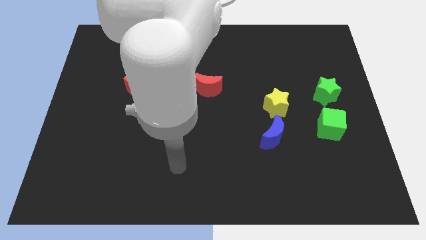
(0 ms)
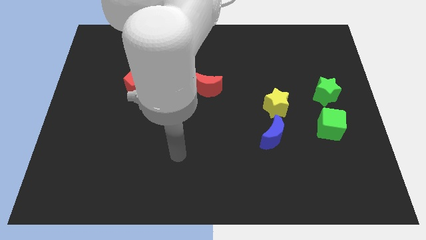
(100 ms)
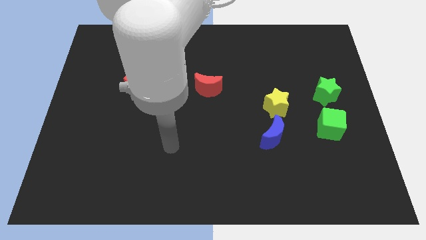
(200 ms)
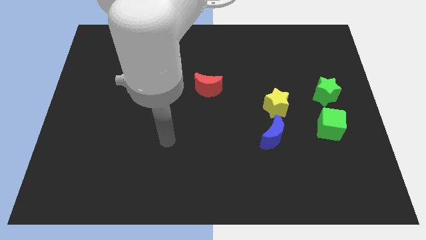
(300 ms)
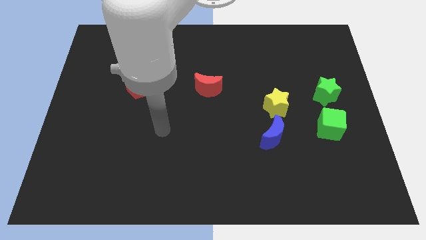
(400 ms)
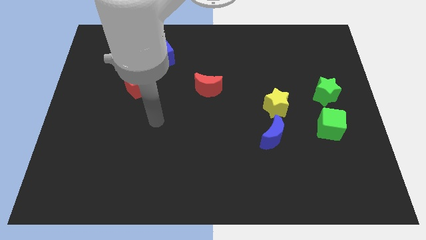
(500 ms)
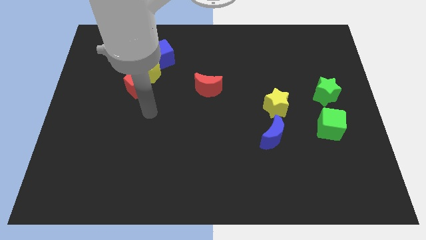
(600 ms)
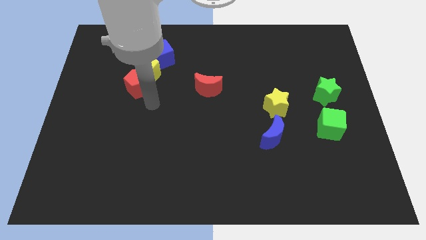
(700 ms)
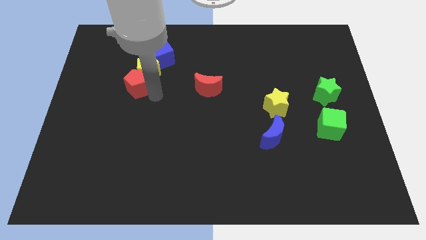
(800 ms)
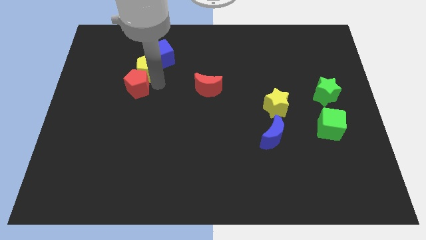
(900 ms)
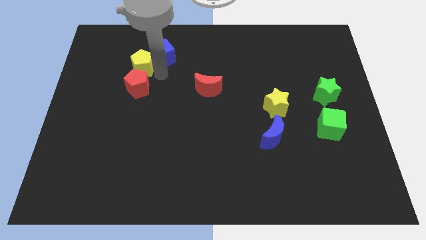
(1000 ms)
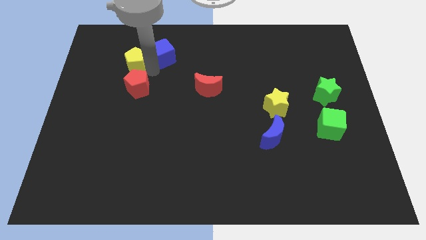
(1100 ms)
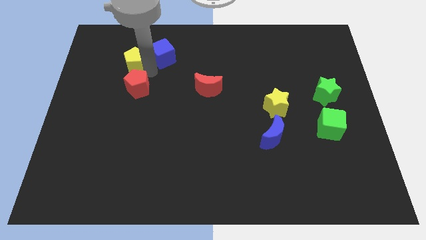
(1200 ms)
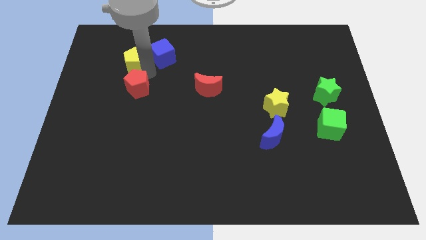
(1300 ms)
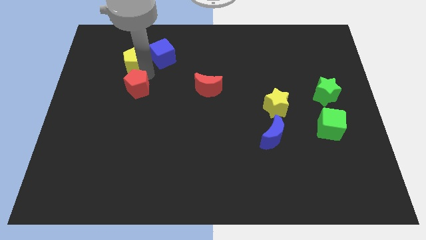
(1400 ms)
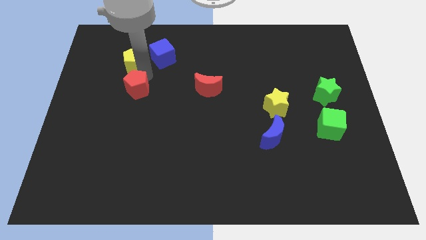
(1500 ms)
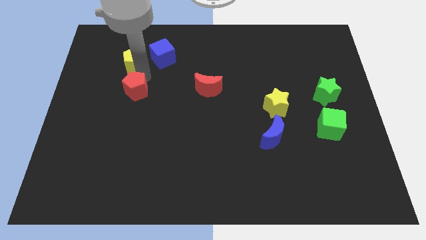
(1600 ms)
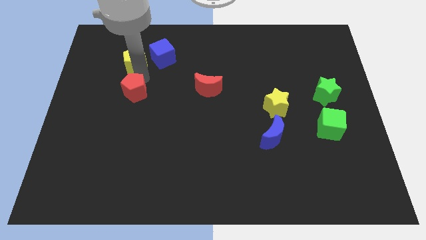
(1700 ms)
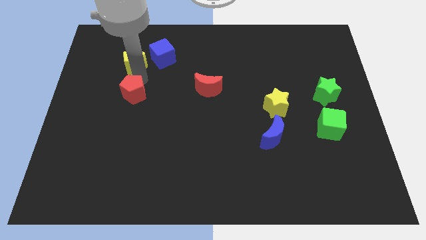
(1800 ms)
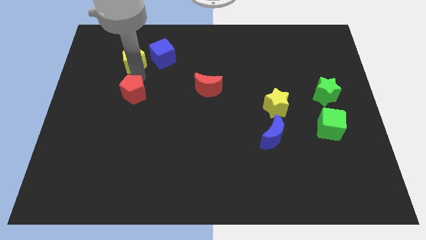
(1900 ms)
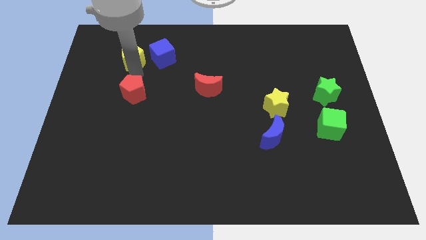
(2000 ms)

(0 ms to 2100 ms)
separate the red pentagon from the yellow pentagon

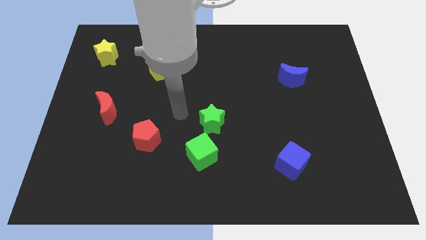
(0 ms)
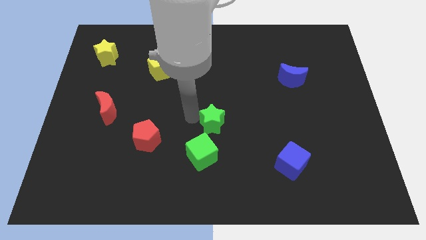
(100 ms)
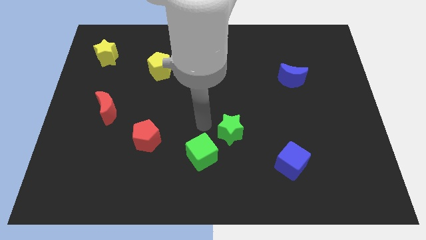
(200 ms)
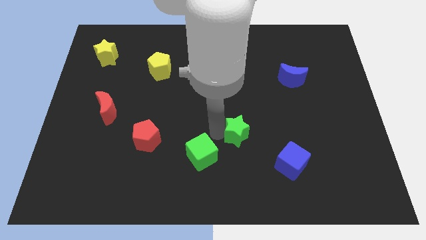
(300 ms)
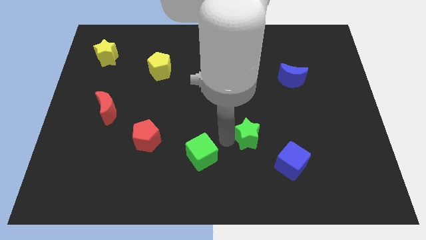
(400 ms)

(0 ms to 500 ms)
separate the green cube from the green star

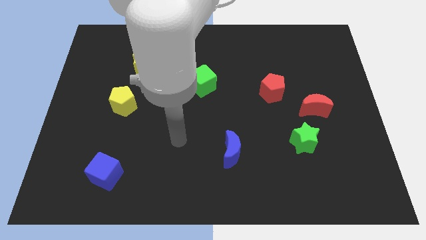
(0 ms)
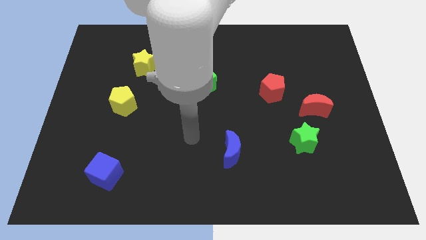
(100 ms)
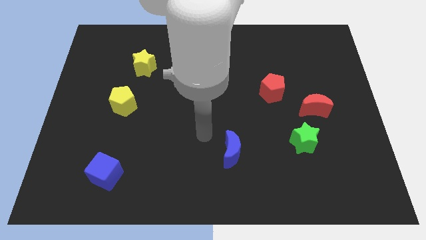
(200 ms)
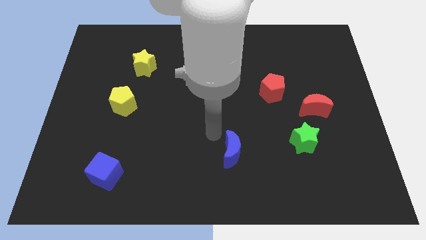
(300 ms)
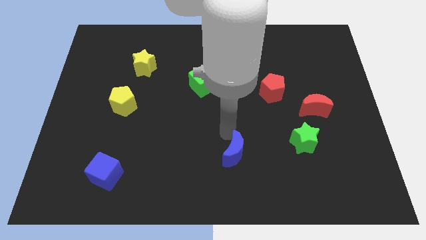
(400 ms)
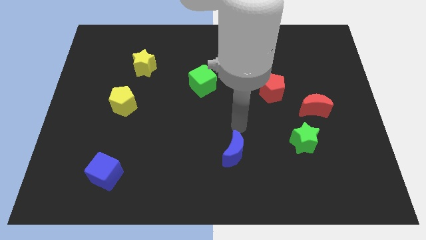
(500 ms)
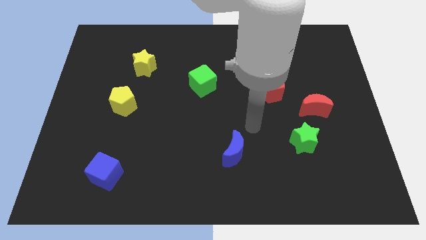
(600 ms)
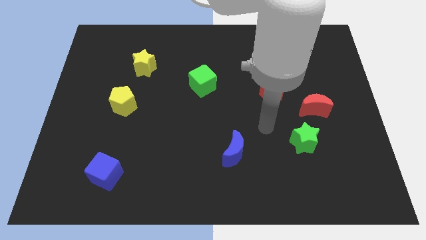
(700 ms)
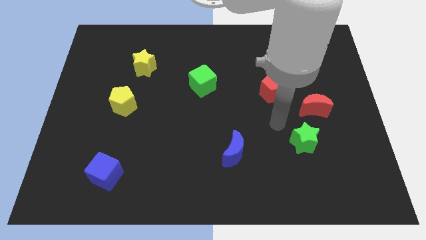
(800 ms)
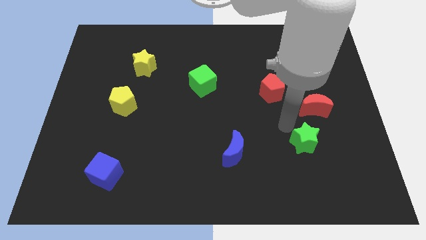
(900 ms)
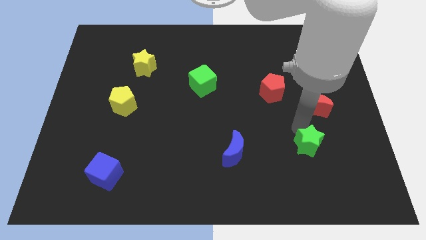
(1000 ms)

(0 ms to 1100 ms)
separate the red moon from the green star

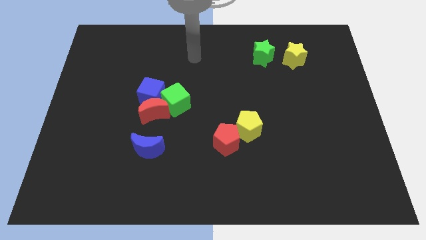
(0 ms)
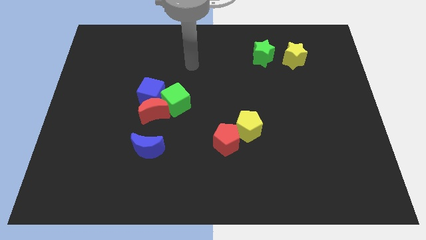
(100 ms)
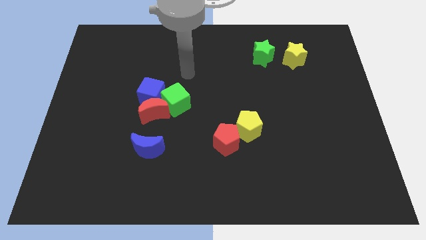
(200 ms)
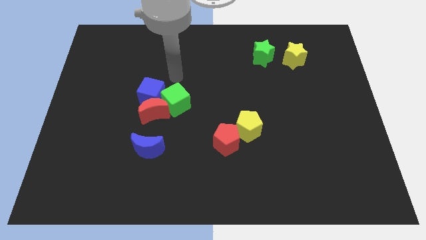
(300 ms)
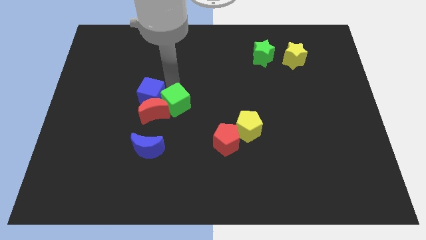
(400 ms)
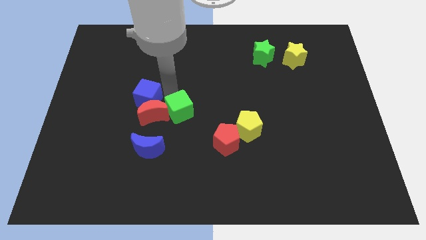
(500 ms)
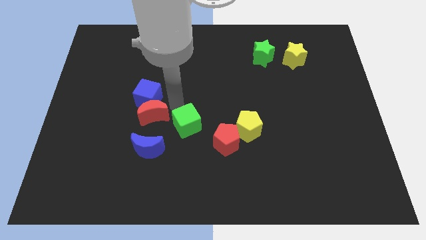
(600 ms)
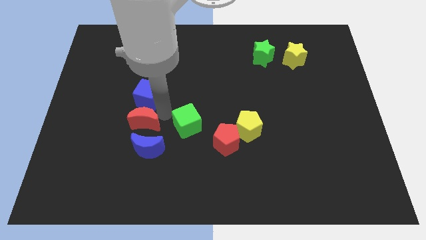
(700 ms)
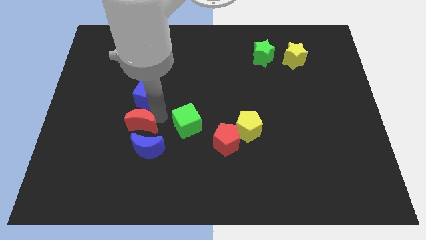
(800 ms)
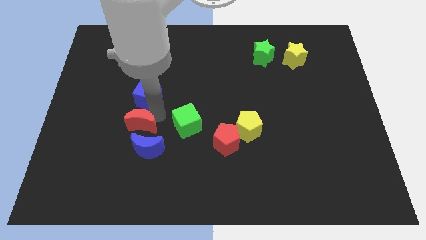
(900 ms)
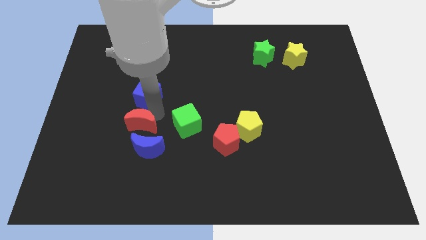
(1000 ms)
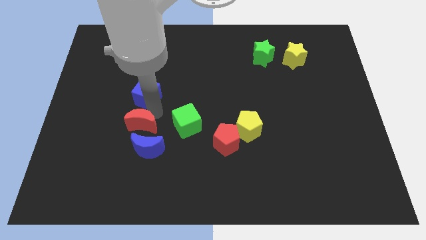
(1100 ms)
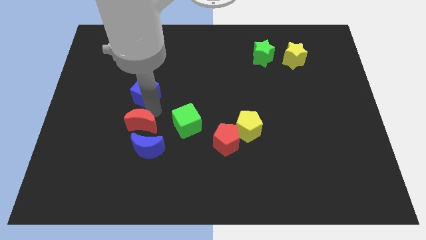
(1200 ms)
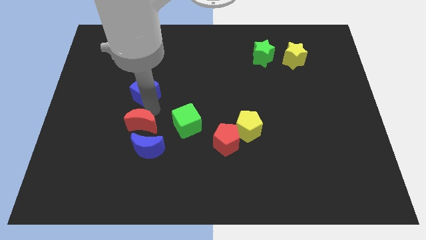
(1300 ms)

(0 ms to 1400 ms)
separate the blue cube from the red moon and green cube

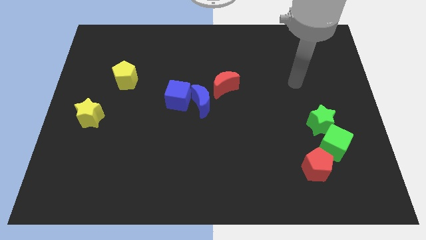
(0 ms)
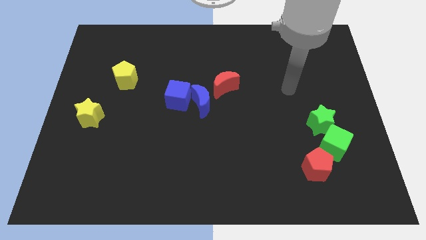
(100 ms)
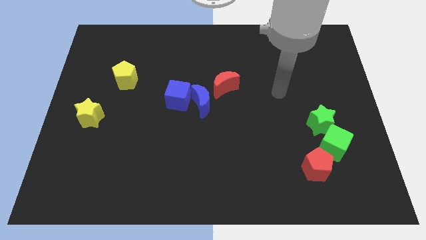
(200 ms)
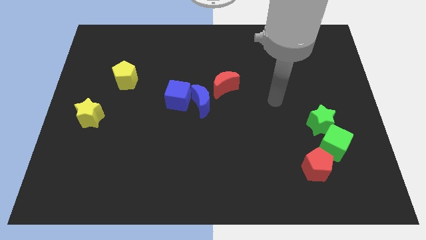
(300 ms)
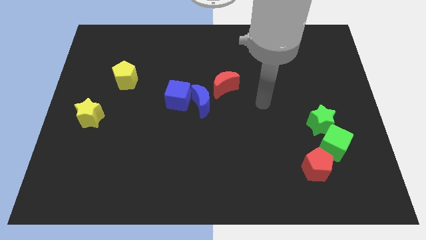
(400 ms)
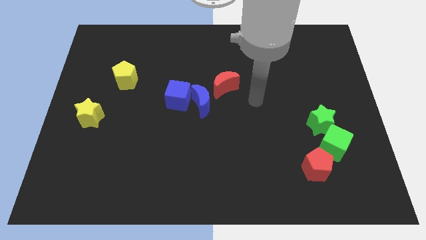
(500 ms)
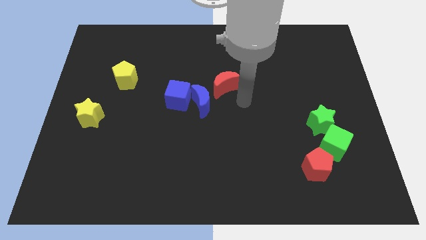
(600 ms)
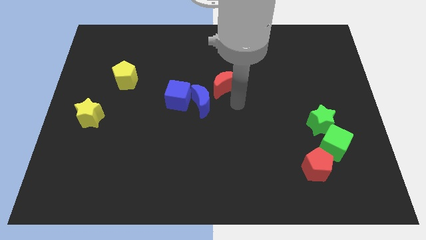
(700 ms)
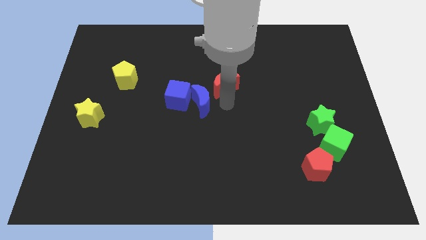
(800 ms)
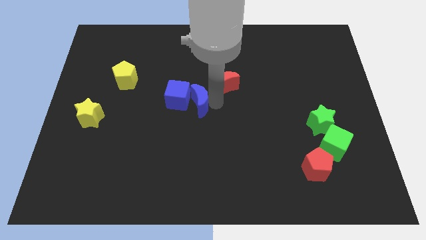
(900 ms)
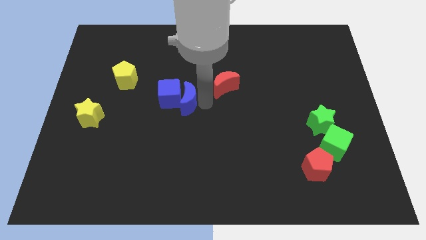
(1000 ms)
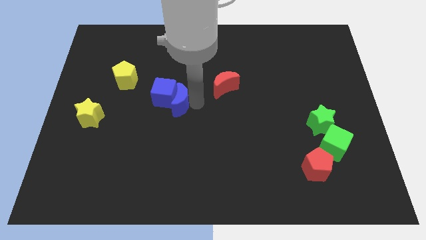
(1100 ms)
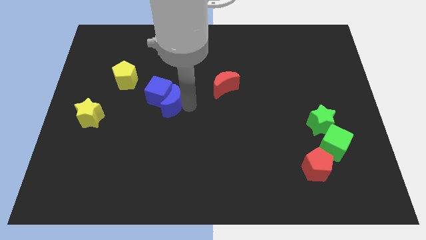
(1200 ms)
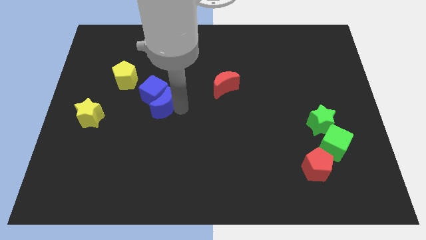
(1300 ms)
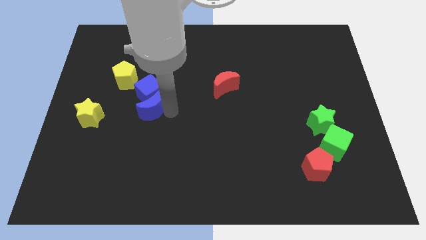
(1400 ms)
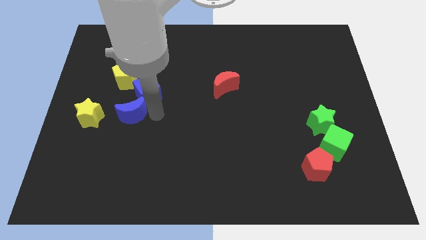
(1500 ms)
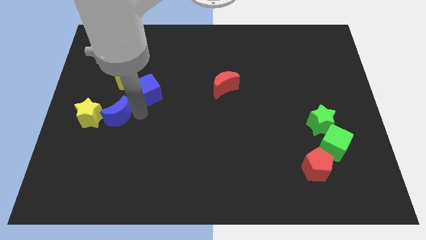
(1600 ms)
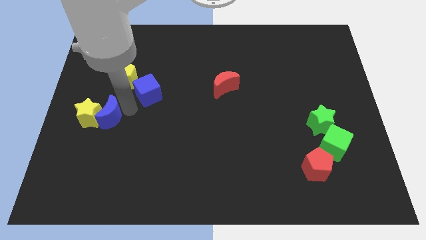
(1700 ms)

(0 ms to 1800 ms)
pull the blue cube apart from the blue moon

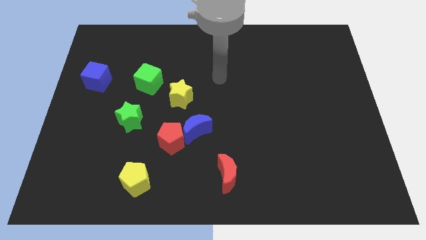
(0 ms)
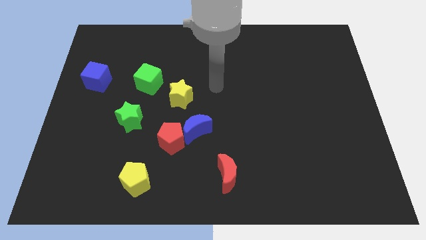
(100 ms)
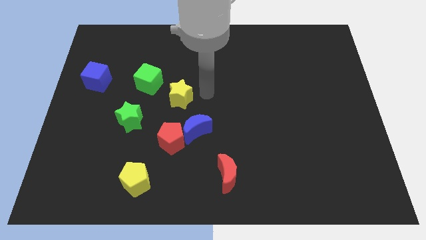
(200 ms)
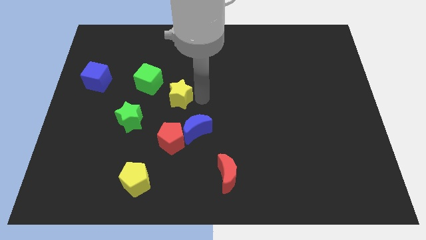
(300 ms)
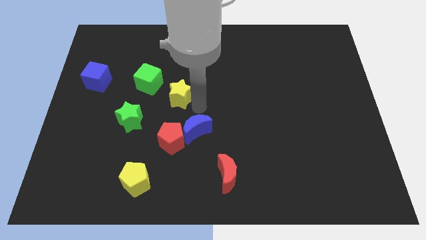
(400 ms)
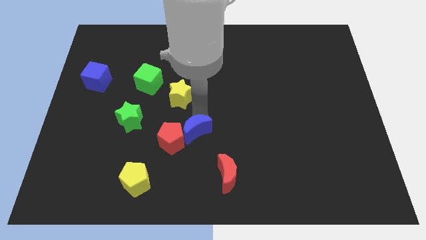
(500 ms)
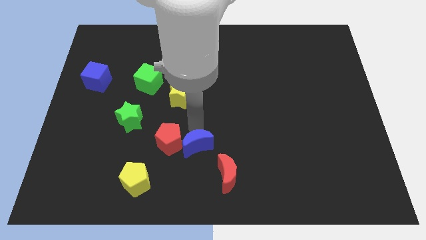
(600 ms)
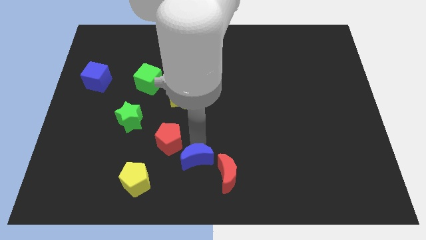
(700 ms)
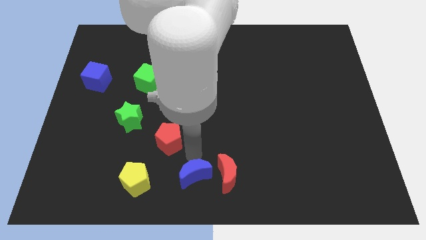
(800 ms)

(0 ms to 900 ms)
move the red pentagon away from the blue moon

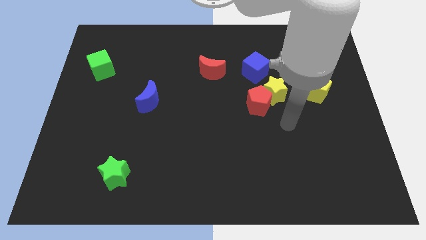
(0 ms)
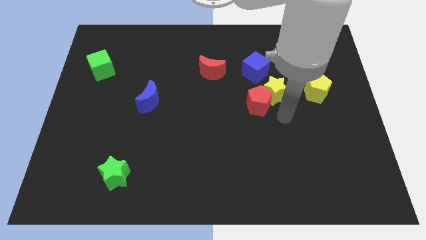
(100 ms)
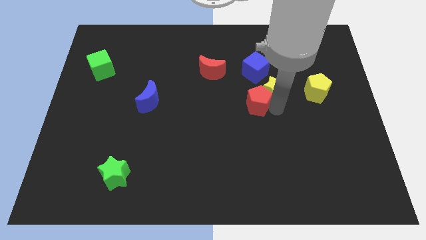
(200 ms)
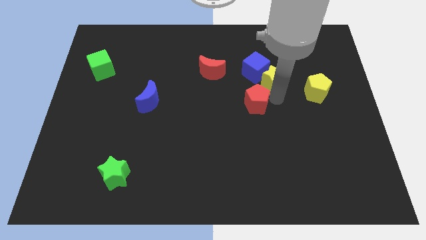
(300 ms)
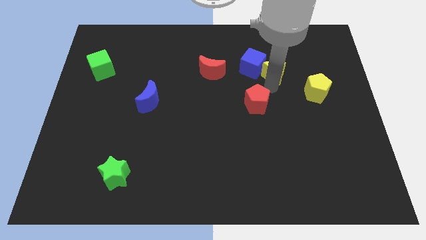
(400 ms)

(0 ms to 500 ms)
separate the red pentagon from the yellow star

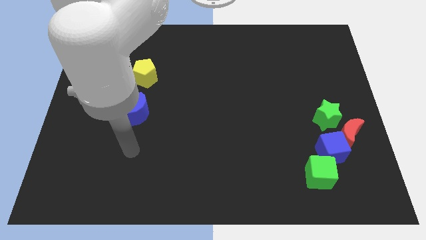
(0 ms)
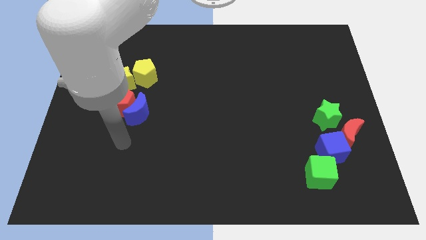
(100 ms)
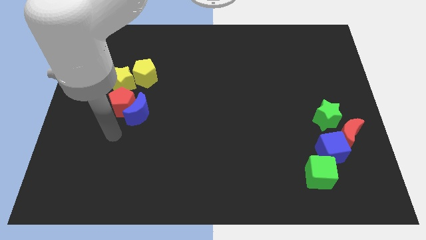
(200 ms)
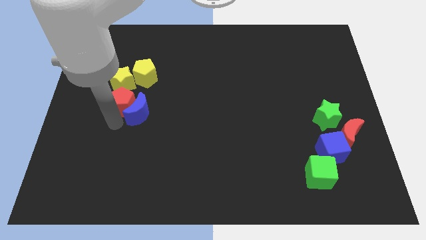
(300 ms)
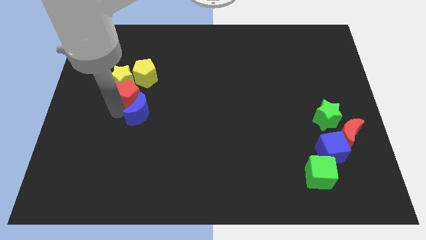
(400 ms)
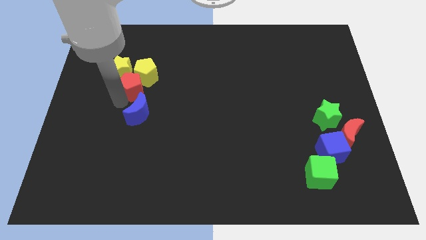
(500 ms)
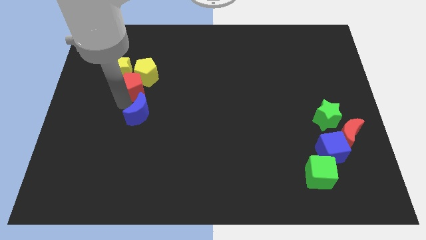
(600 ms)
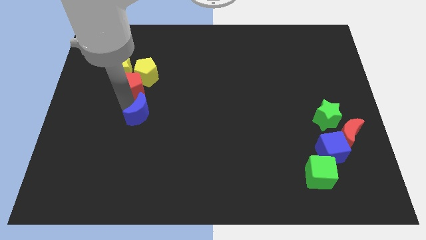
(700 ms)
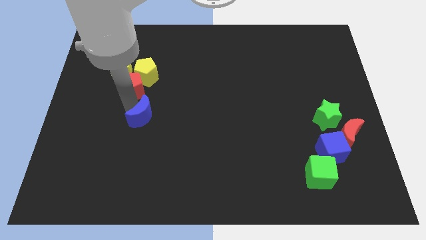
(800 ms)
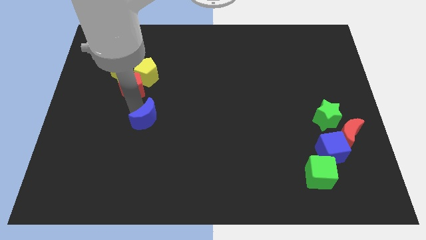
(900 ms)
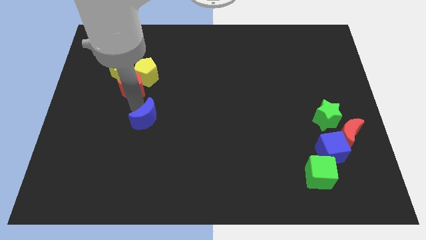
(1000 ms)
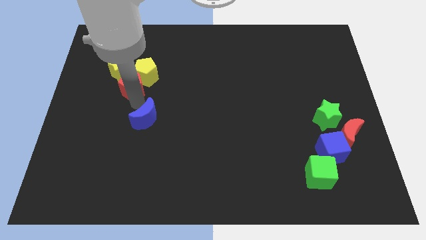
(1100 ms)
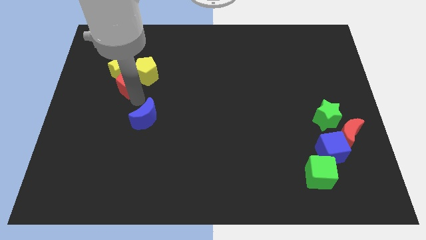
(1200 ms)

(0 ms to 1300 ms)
separate the blue moon from the red pentagon
